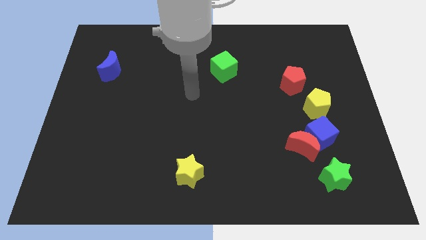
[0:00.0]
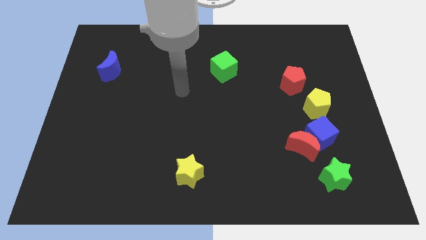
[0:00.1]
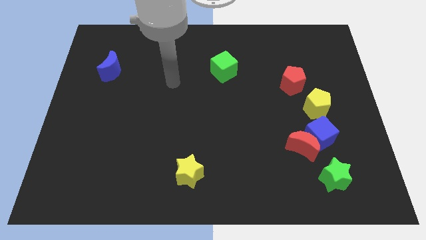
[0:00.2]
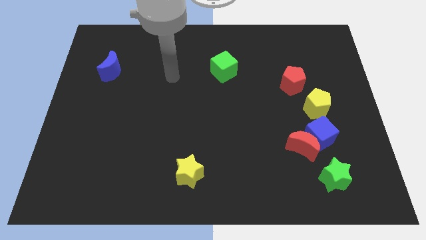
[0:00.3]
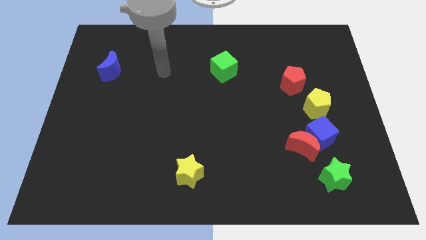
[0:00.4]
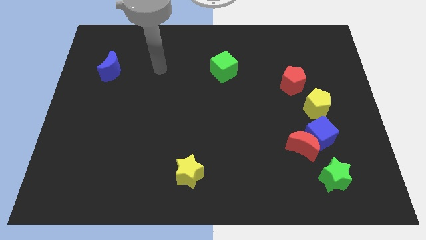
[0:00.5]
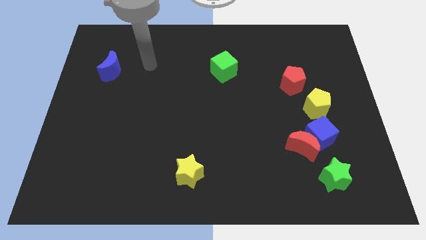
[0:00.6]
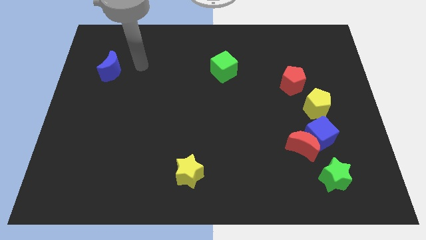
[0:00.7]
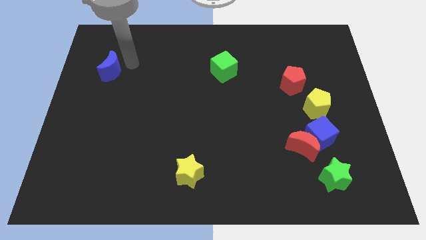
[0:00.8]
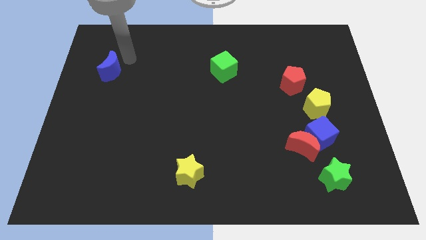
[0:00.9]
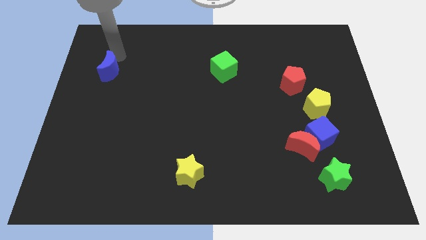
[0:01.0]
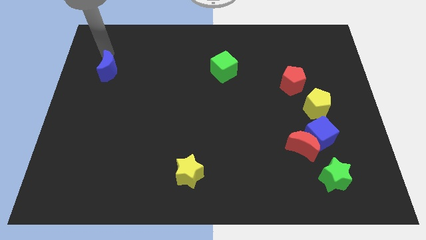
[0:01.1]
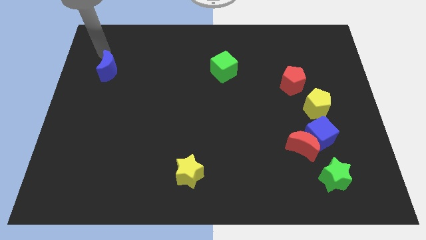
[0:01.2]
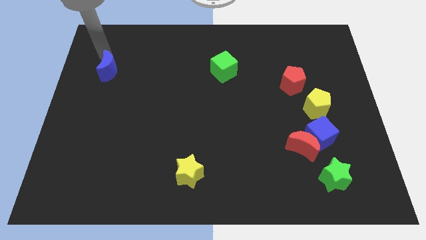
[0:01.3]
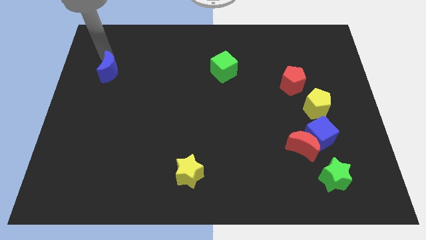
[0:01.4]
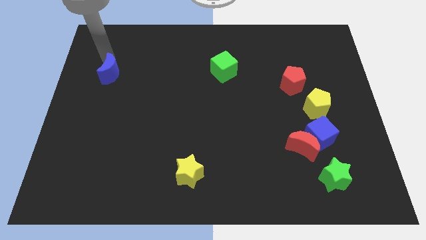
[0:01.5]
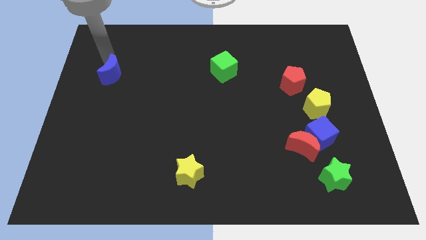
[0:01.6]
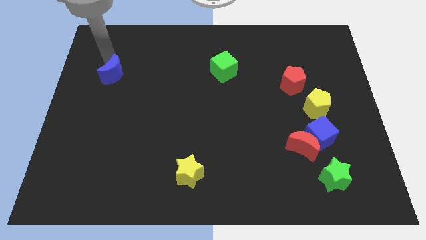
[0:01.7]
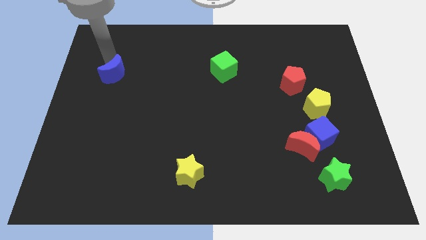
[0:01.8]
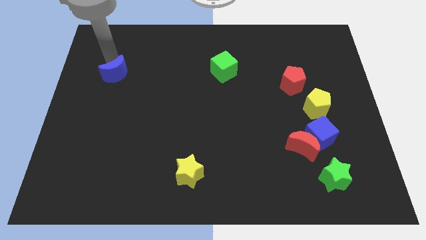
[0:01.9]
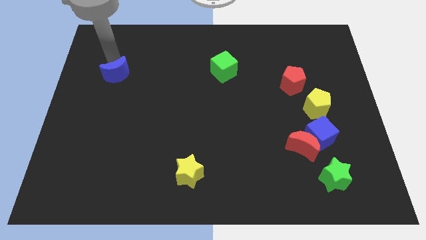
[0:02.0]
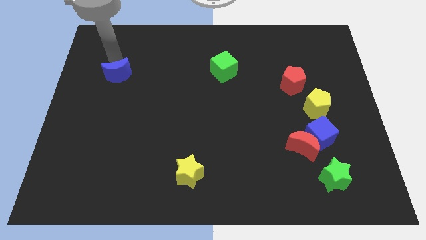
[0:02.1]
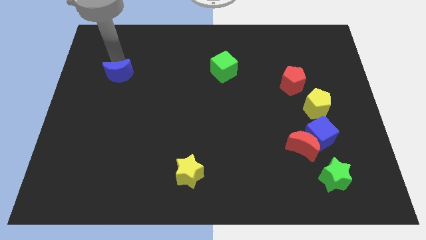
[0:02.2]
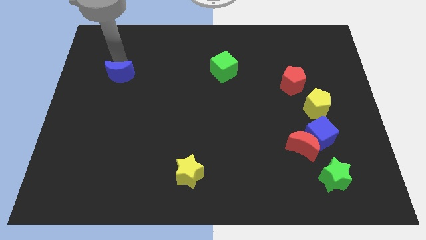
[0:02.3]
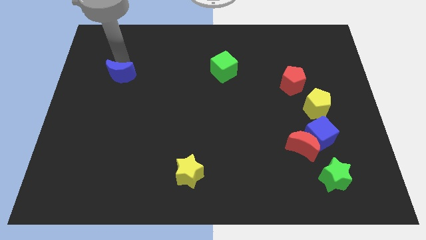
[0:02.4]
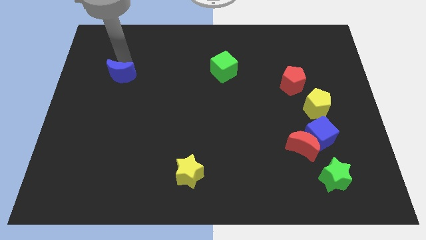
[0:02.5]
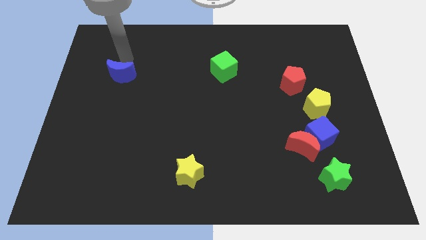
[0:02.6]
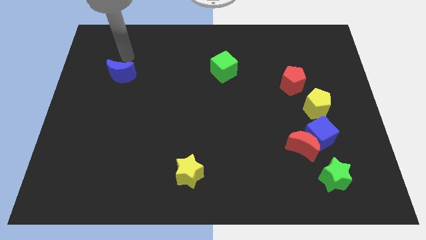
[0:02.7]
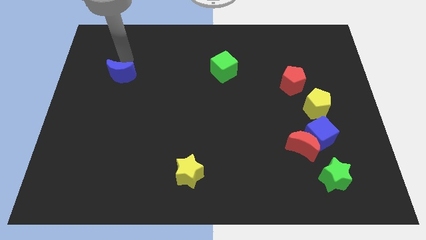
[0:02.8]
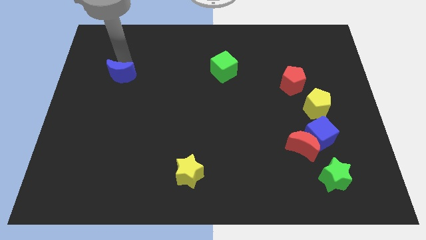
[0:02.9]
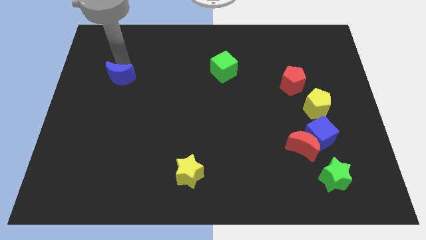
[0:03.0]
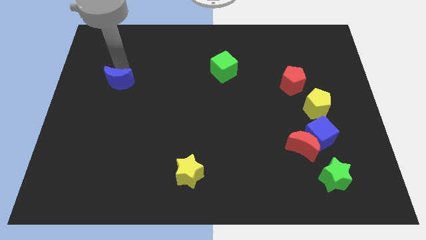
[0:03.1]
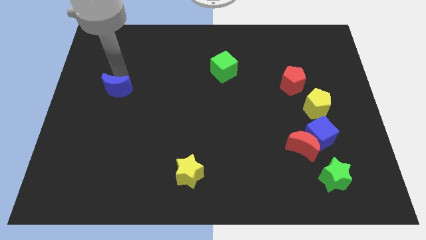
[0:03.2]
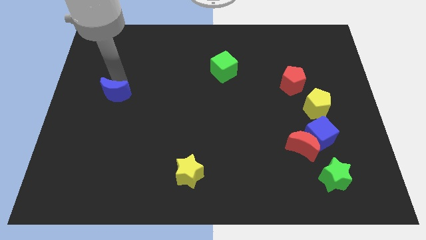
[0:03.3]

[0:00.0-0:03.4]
push the blue moon a little downwards

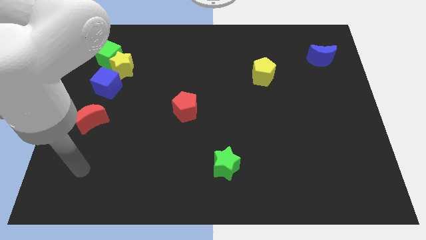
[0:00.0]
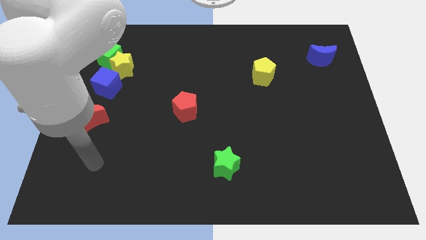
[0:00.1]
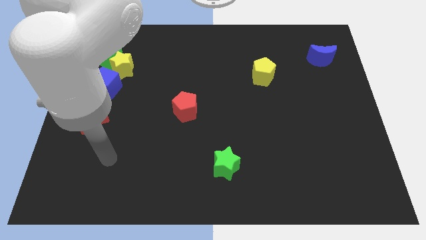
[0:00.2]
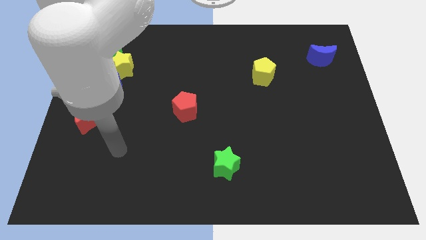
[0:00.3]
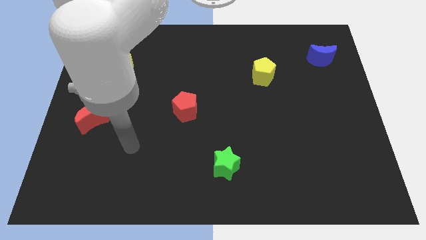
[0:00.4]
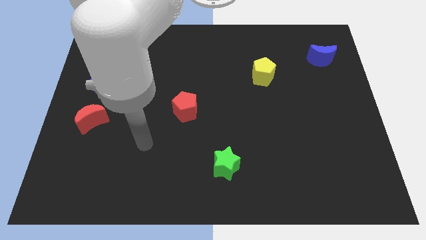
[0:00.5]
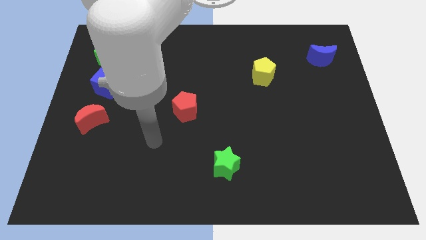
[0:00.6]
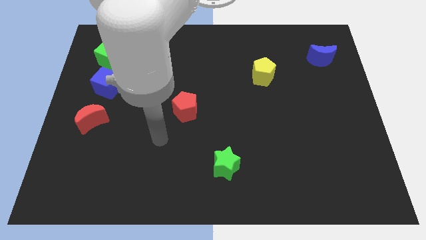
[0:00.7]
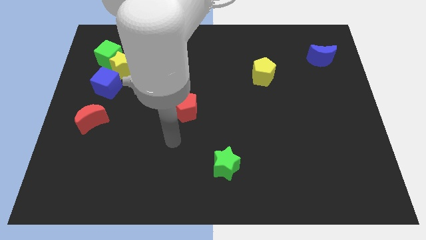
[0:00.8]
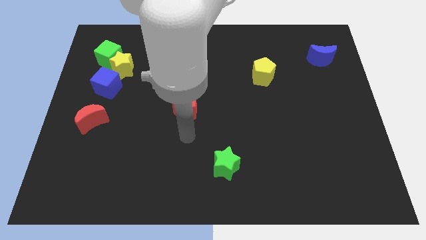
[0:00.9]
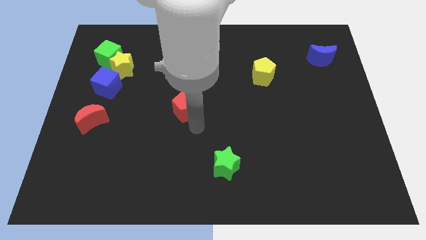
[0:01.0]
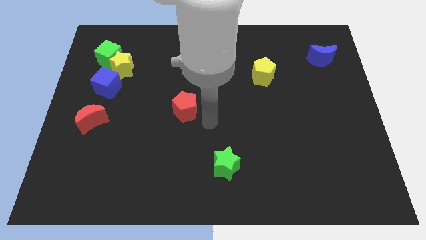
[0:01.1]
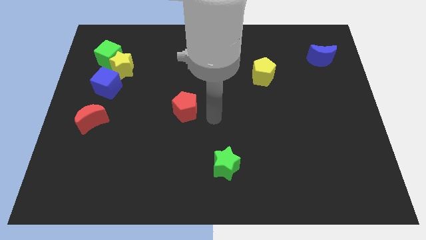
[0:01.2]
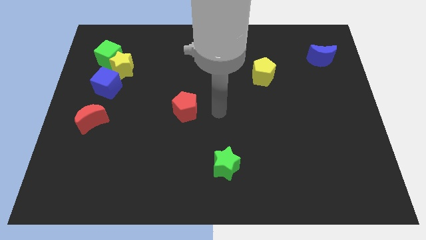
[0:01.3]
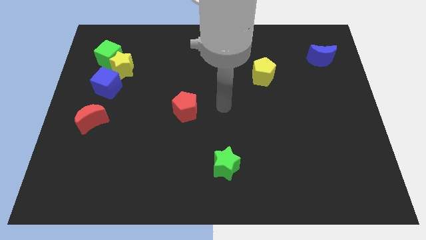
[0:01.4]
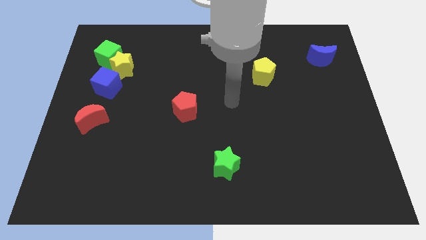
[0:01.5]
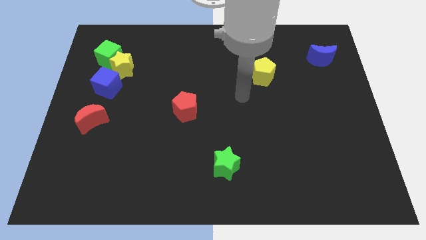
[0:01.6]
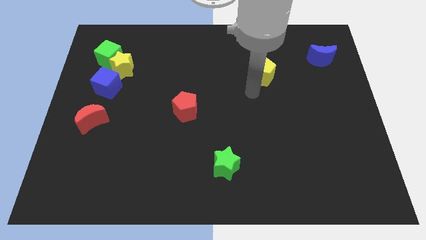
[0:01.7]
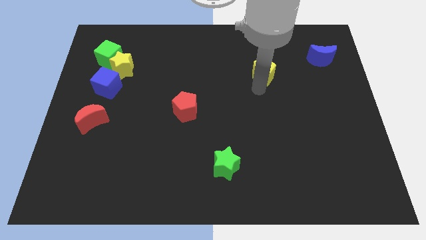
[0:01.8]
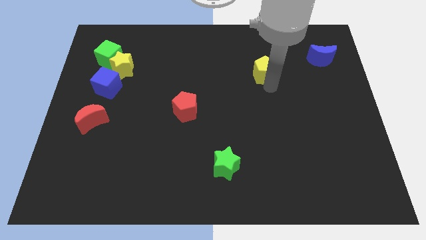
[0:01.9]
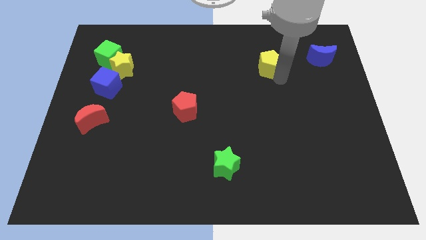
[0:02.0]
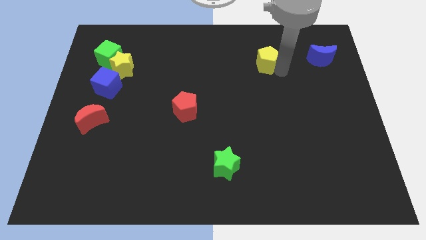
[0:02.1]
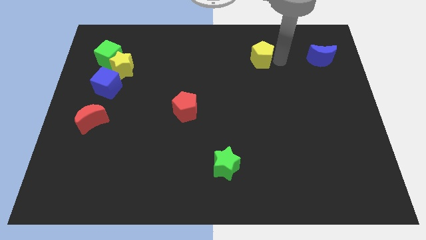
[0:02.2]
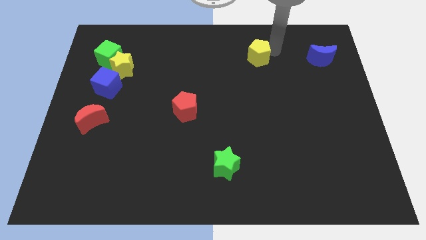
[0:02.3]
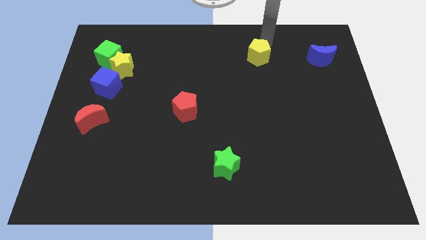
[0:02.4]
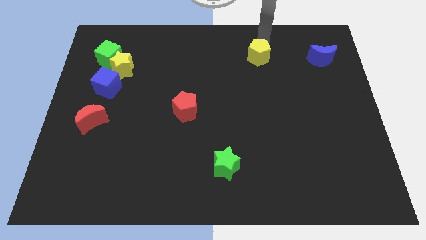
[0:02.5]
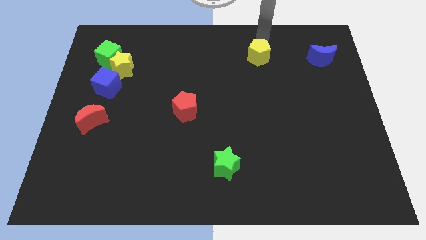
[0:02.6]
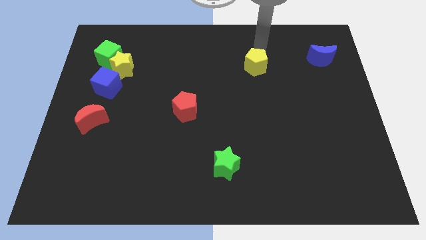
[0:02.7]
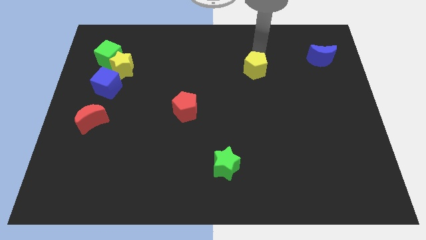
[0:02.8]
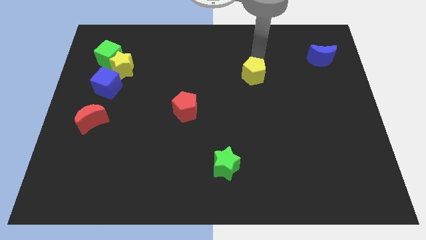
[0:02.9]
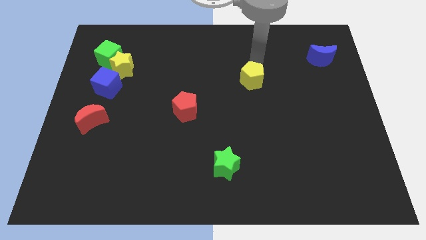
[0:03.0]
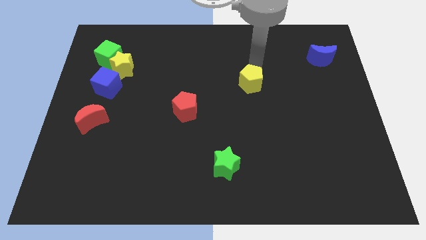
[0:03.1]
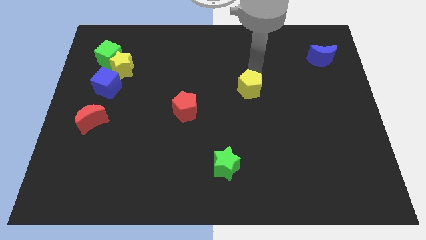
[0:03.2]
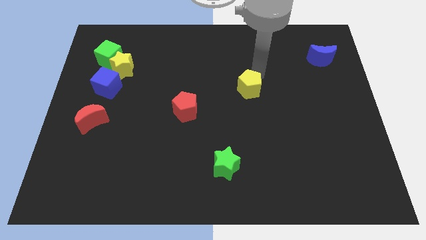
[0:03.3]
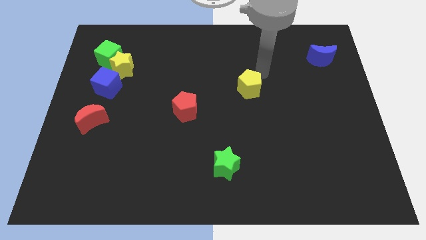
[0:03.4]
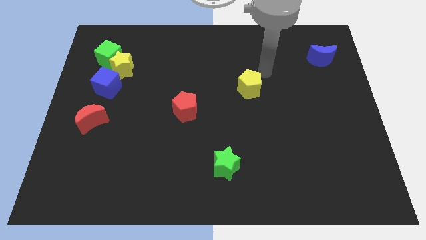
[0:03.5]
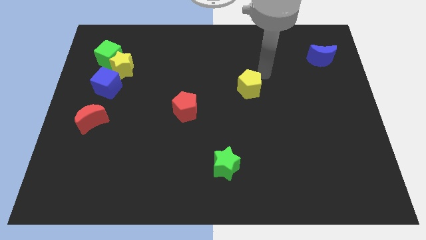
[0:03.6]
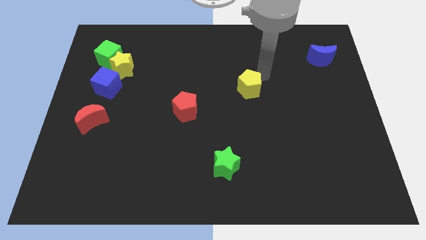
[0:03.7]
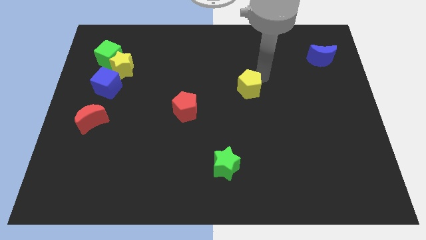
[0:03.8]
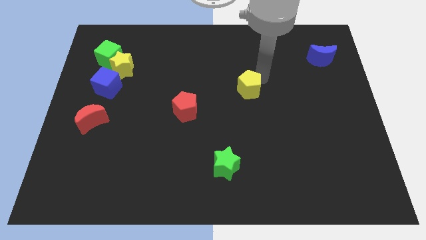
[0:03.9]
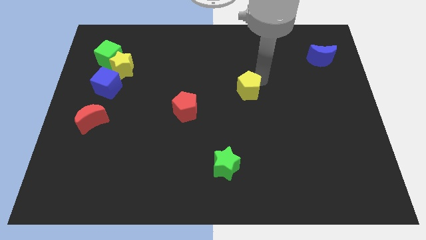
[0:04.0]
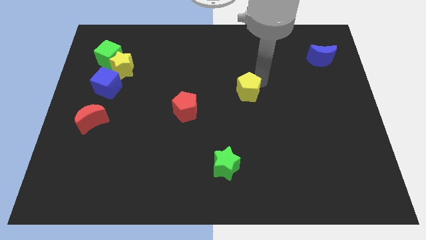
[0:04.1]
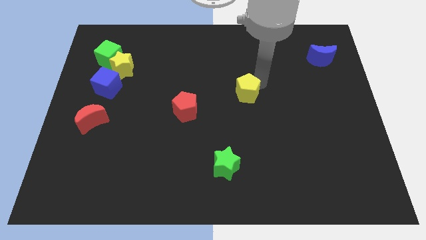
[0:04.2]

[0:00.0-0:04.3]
slightly slide the yellow pentagon downwards and then to the left

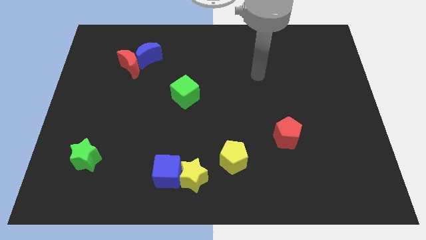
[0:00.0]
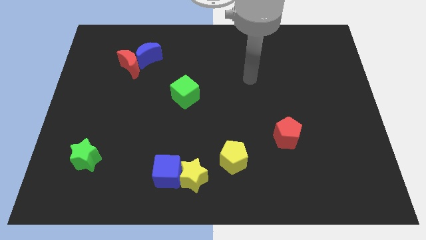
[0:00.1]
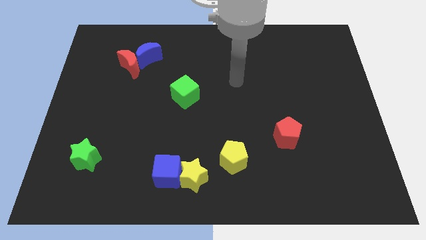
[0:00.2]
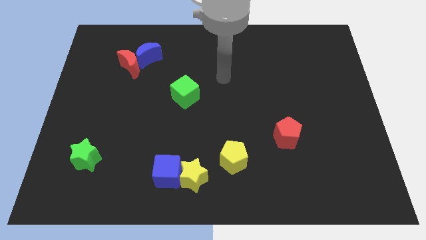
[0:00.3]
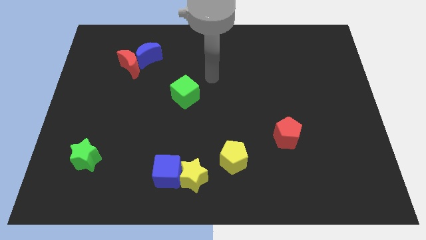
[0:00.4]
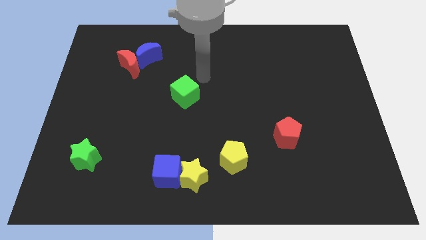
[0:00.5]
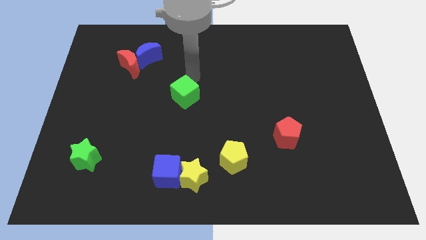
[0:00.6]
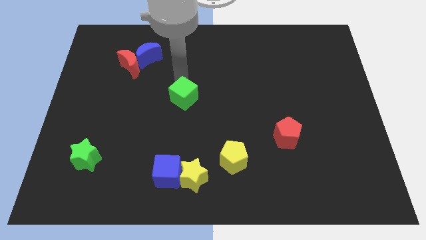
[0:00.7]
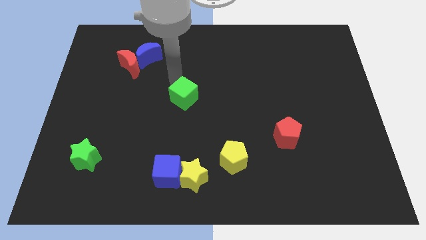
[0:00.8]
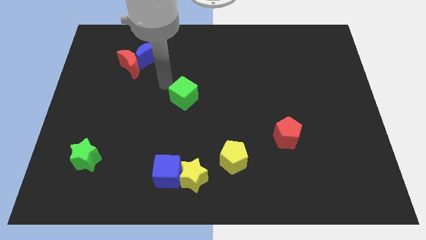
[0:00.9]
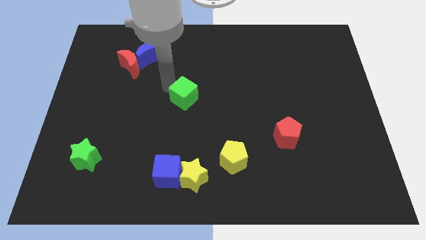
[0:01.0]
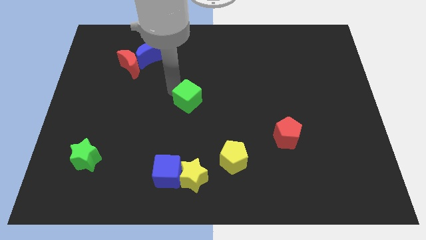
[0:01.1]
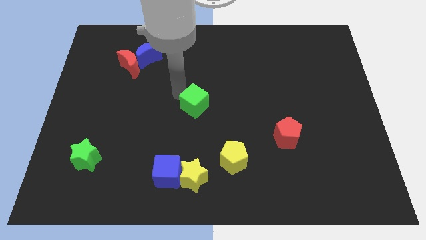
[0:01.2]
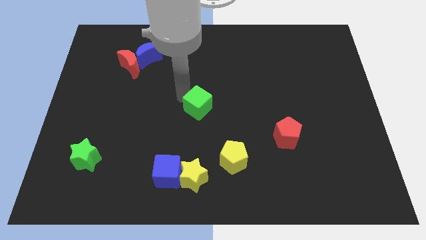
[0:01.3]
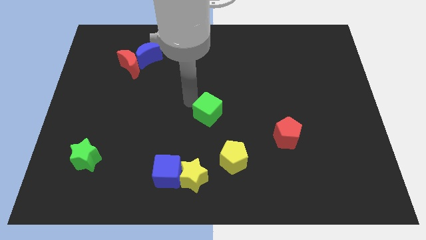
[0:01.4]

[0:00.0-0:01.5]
slightly push the green cube diagonally down and right
